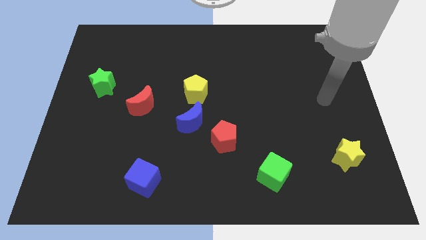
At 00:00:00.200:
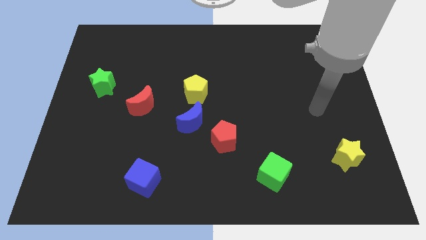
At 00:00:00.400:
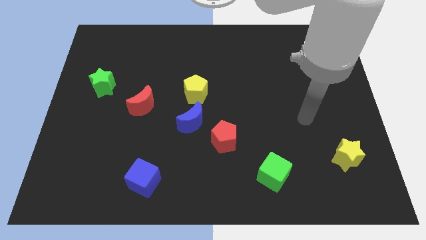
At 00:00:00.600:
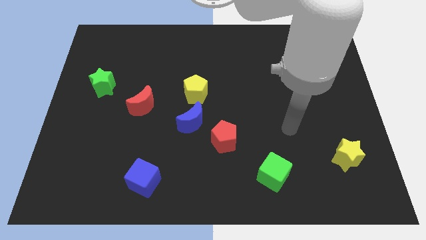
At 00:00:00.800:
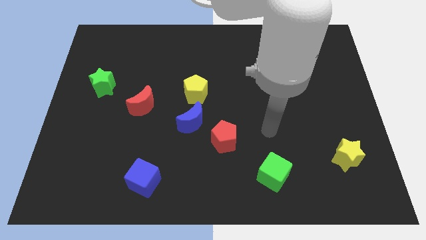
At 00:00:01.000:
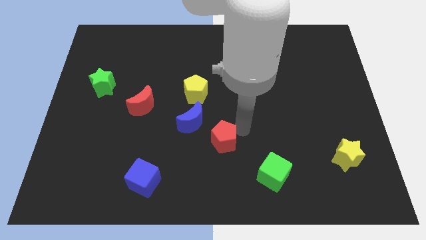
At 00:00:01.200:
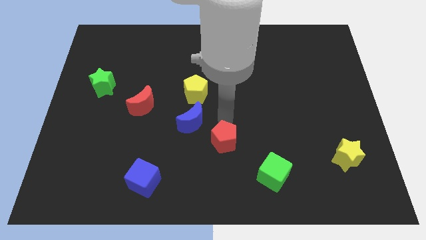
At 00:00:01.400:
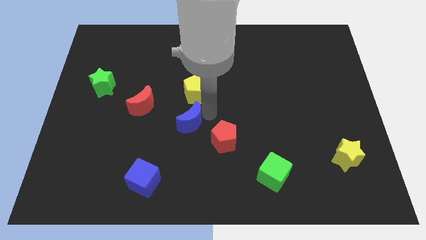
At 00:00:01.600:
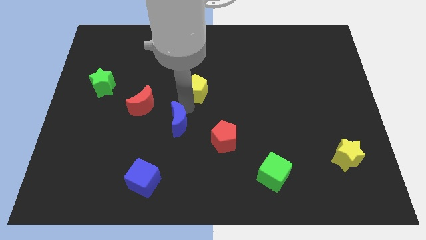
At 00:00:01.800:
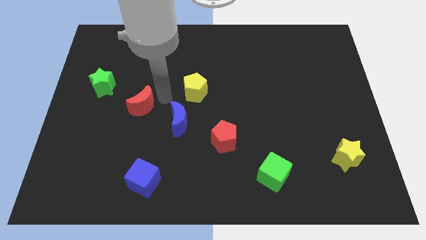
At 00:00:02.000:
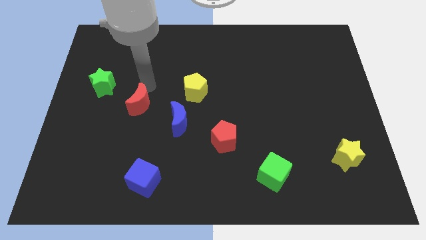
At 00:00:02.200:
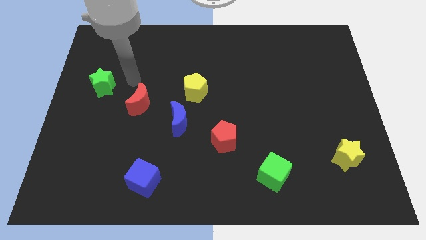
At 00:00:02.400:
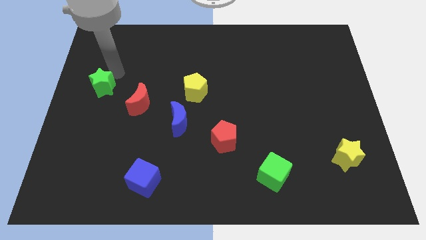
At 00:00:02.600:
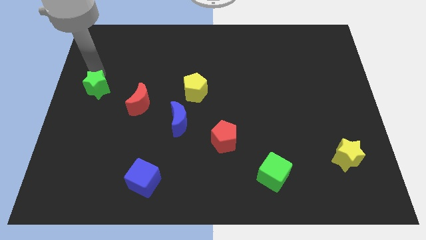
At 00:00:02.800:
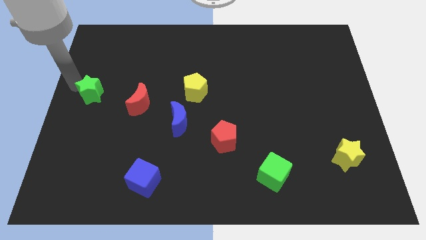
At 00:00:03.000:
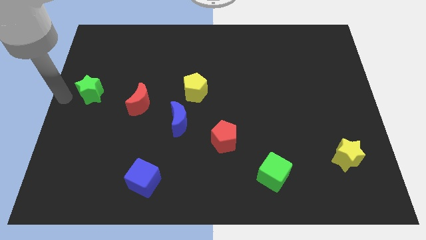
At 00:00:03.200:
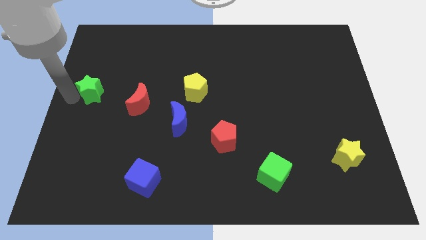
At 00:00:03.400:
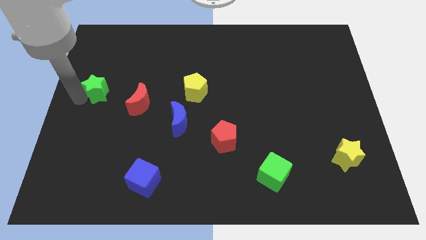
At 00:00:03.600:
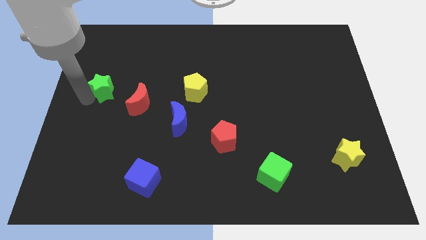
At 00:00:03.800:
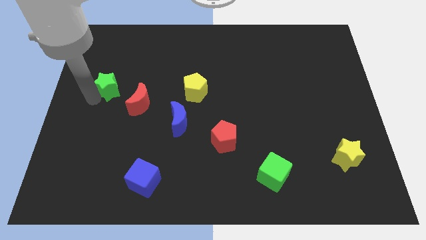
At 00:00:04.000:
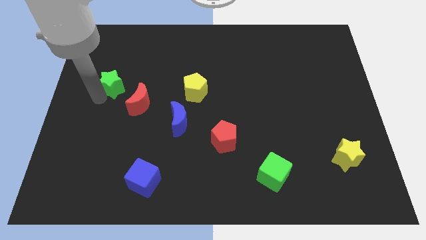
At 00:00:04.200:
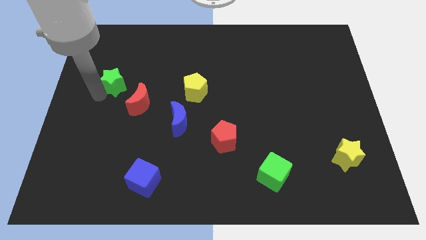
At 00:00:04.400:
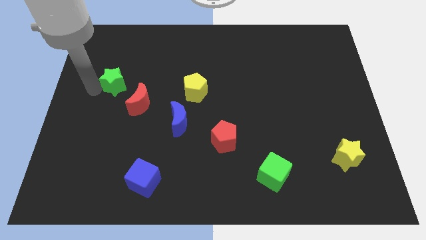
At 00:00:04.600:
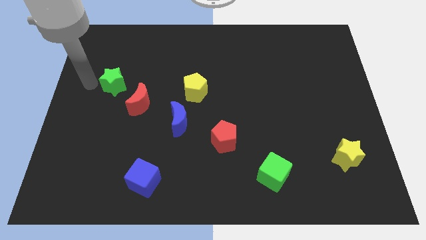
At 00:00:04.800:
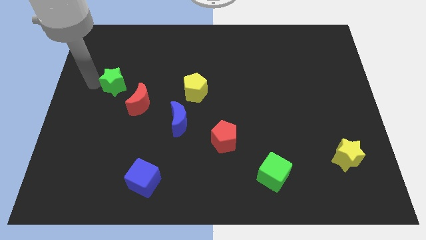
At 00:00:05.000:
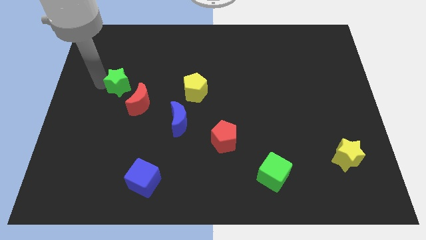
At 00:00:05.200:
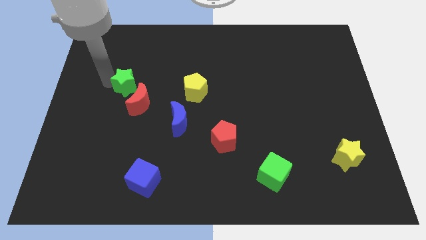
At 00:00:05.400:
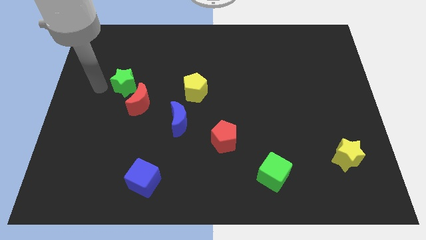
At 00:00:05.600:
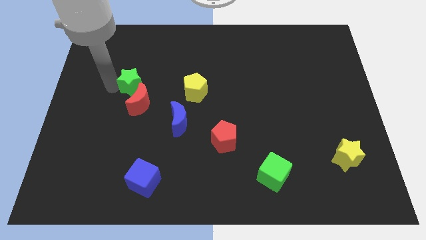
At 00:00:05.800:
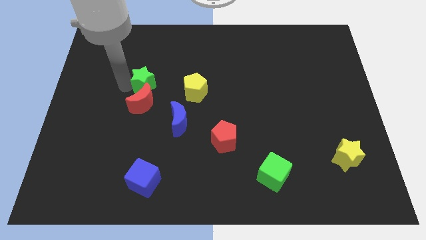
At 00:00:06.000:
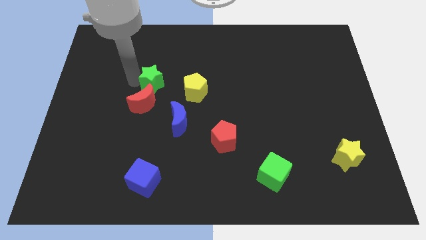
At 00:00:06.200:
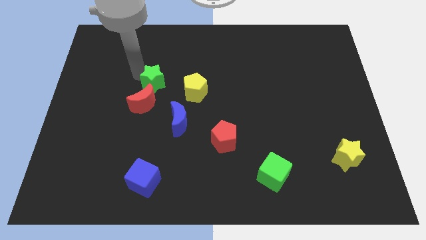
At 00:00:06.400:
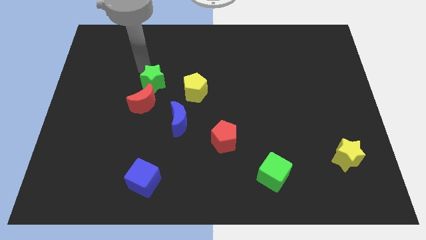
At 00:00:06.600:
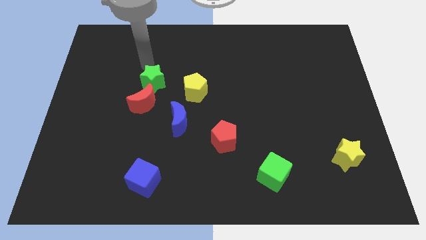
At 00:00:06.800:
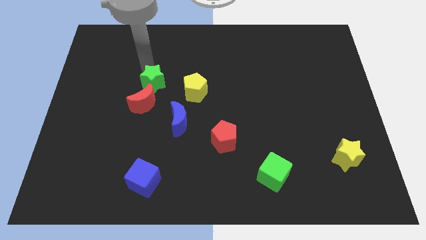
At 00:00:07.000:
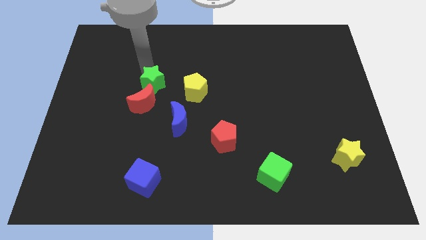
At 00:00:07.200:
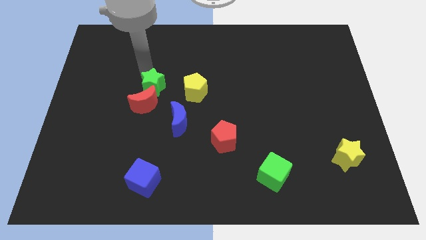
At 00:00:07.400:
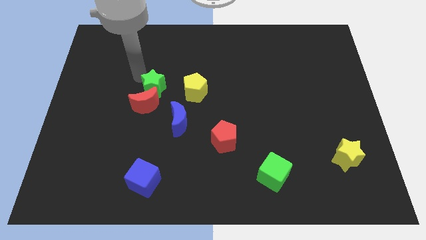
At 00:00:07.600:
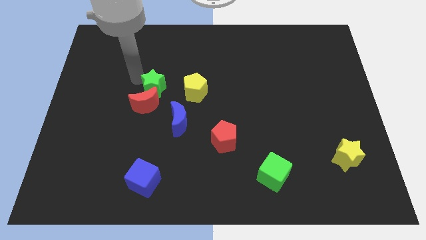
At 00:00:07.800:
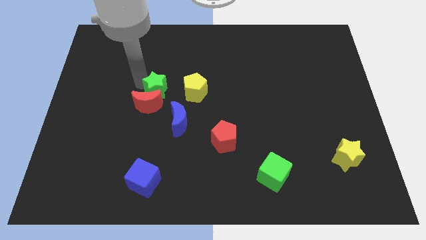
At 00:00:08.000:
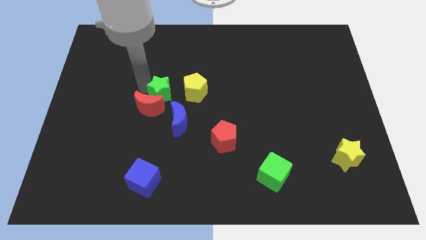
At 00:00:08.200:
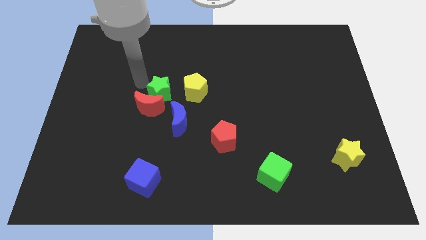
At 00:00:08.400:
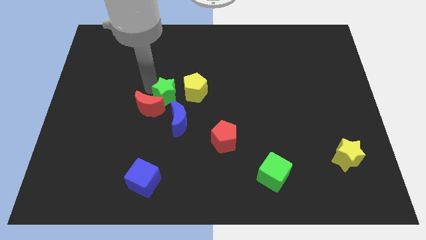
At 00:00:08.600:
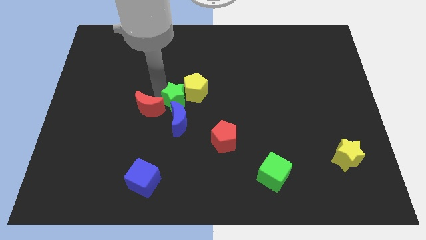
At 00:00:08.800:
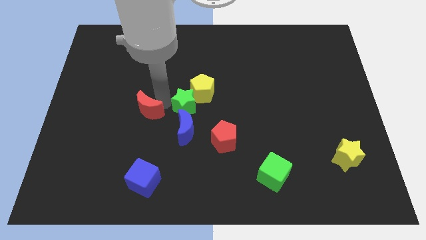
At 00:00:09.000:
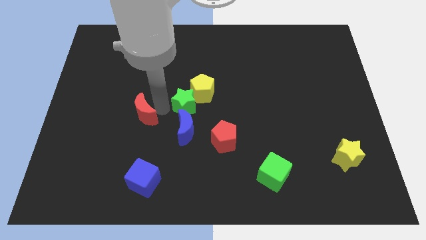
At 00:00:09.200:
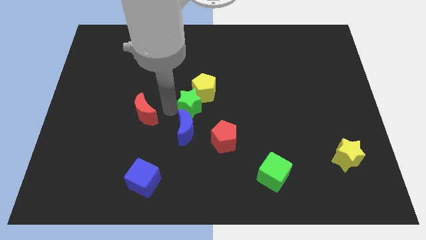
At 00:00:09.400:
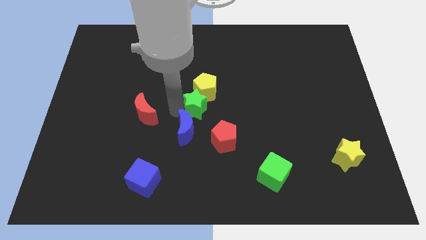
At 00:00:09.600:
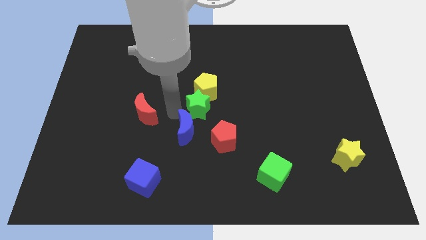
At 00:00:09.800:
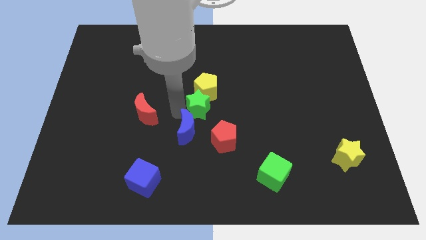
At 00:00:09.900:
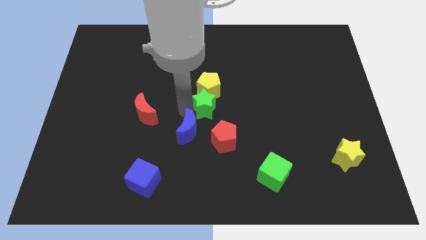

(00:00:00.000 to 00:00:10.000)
move the green star to the top side of the red pentagon

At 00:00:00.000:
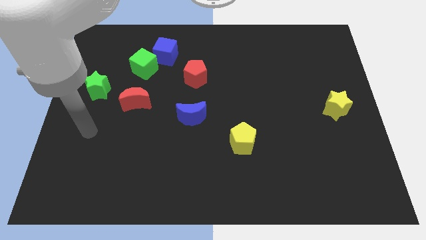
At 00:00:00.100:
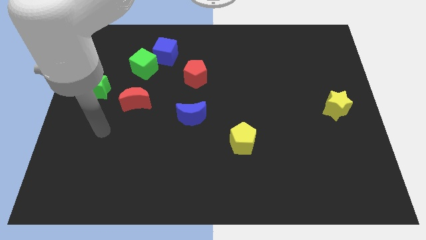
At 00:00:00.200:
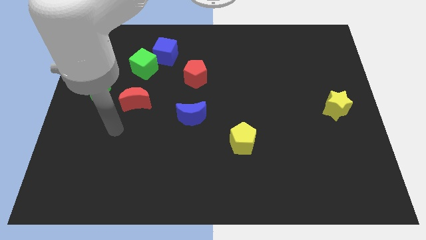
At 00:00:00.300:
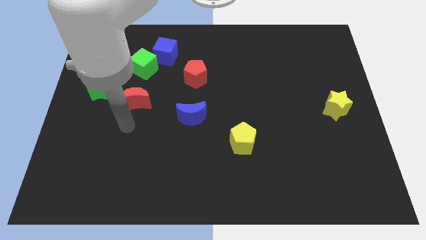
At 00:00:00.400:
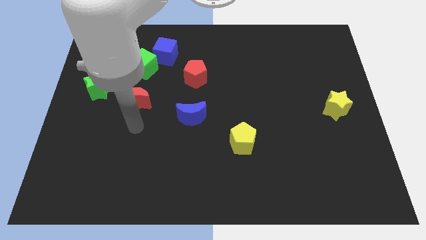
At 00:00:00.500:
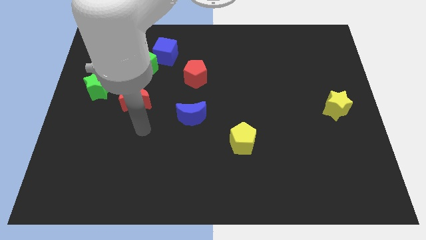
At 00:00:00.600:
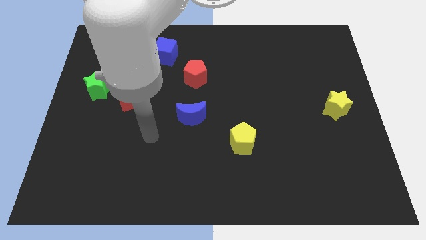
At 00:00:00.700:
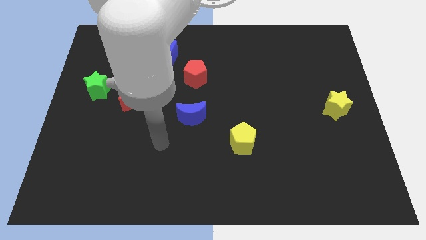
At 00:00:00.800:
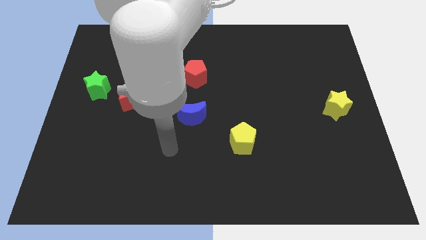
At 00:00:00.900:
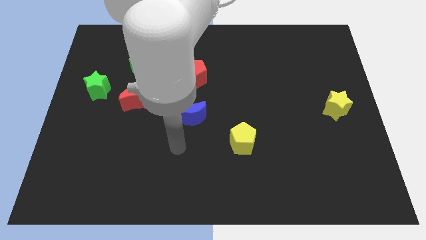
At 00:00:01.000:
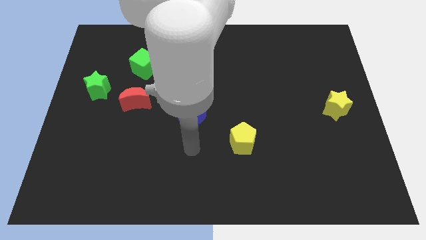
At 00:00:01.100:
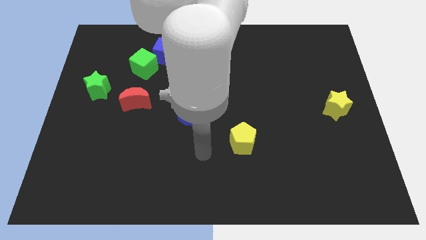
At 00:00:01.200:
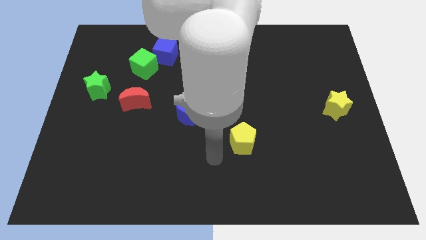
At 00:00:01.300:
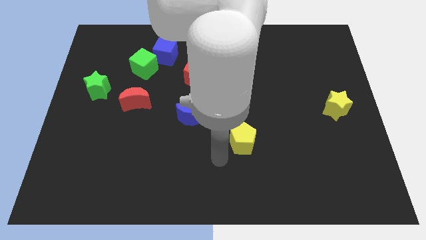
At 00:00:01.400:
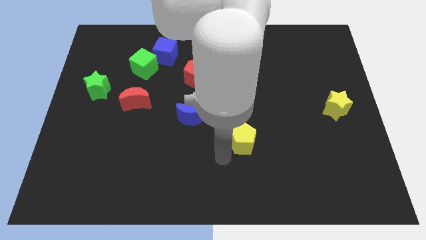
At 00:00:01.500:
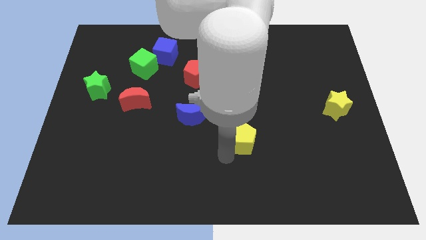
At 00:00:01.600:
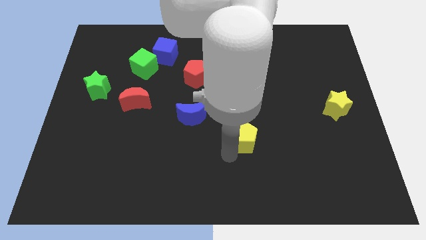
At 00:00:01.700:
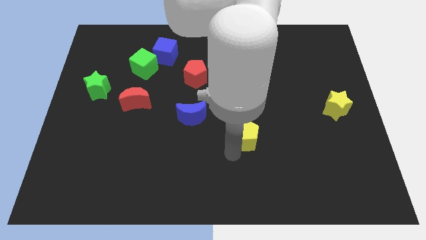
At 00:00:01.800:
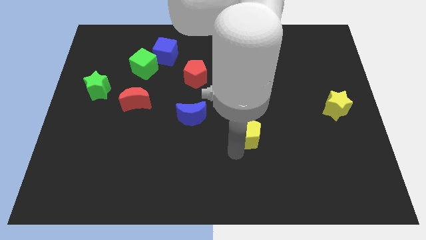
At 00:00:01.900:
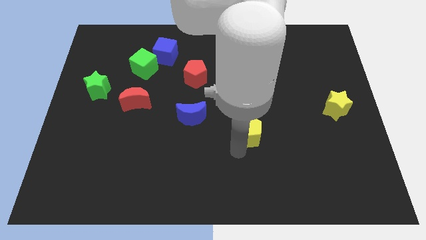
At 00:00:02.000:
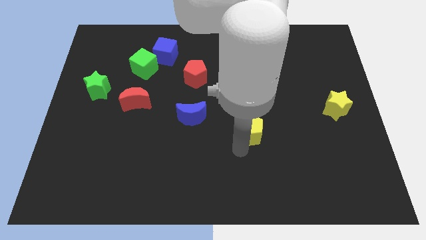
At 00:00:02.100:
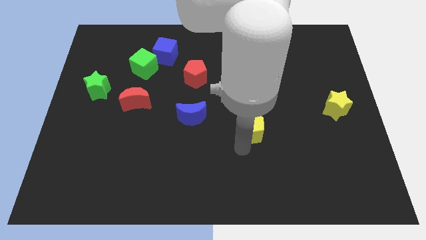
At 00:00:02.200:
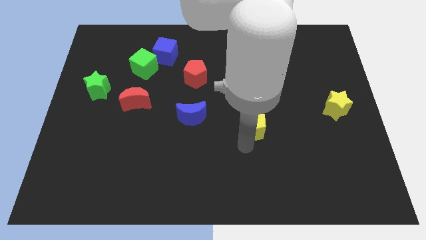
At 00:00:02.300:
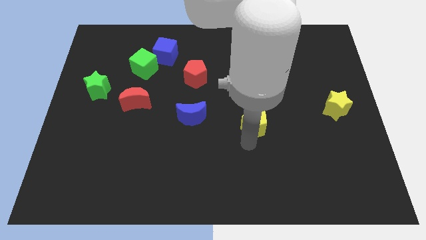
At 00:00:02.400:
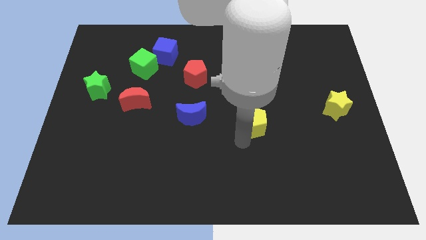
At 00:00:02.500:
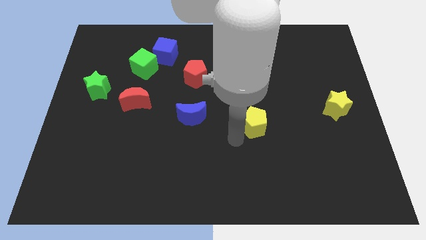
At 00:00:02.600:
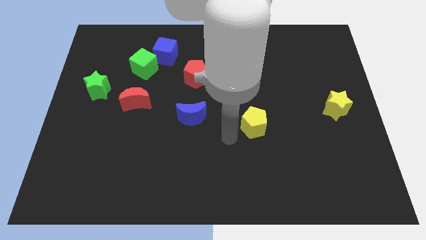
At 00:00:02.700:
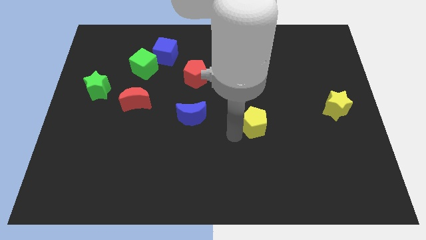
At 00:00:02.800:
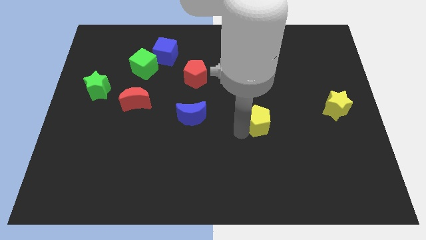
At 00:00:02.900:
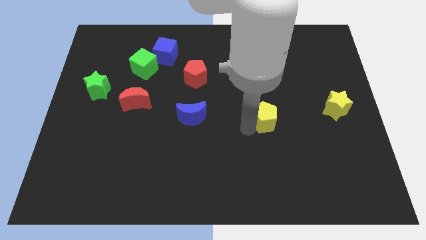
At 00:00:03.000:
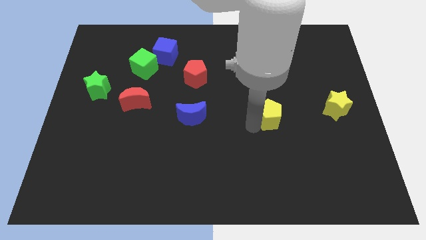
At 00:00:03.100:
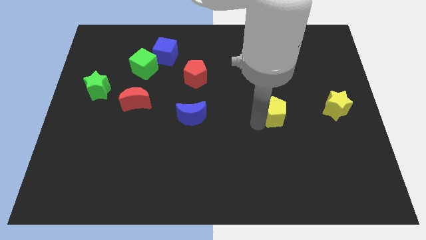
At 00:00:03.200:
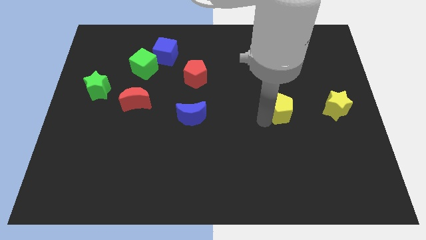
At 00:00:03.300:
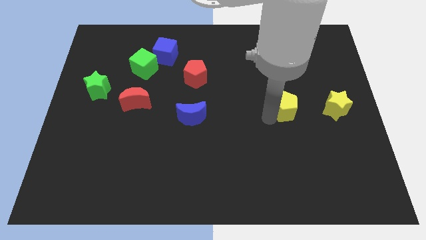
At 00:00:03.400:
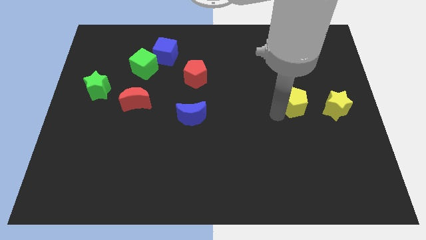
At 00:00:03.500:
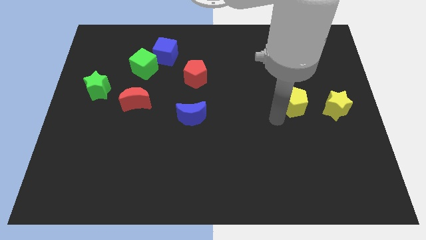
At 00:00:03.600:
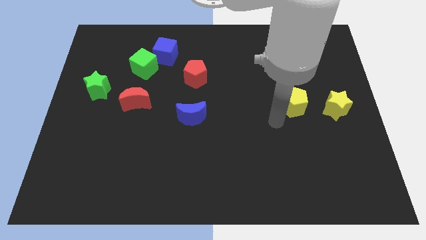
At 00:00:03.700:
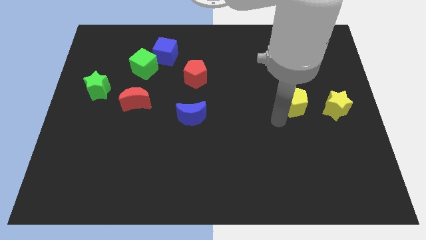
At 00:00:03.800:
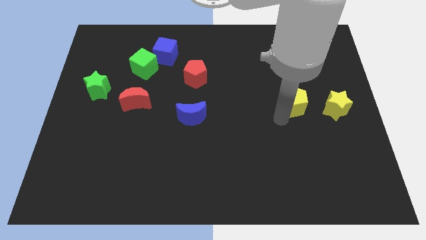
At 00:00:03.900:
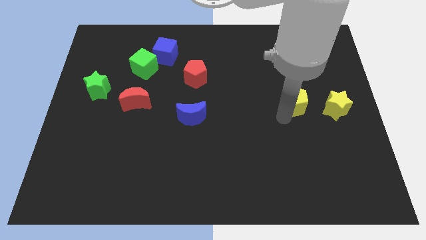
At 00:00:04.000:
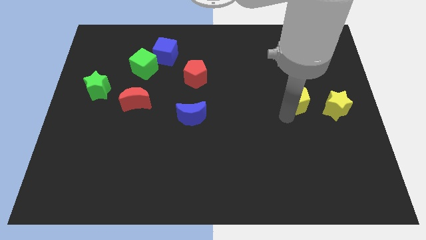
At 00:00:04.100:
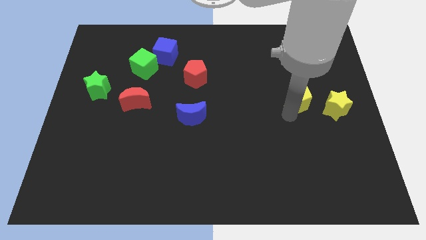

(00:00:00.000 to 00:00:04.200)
move the yellow pentagon diagonally up and to the left of the yellow star
